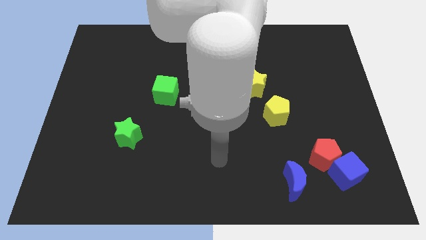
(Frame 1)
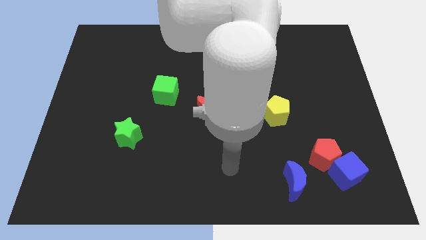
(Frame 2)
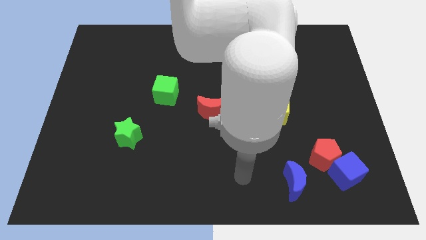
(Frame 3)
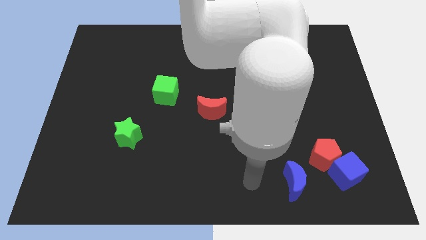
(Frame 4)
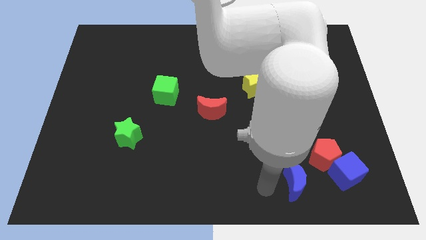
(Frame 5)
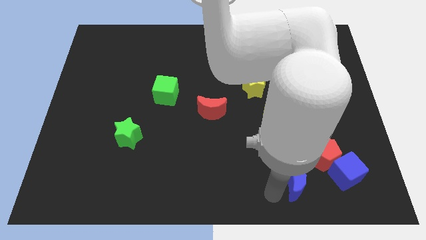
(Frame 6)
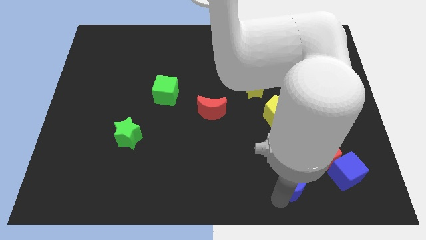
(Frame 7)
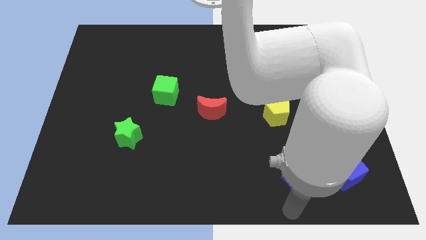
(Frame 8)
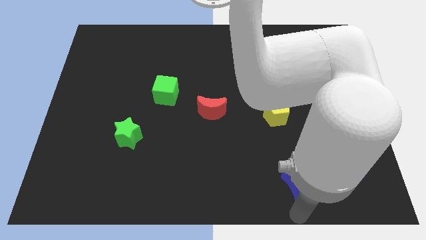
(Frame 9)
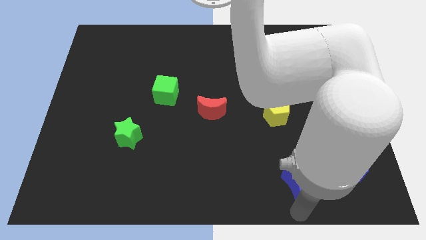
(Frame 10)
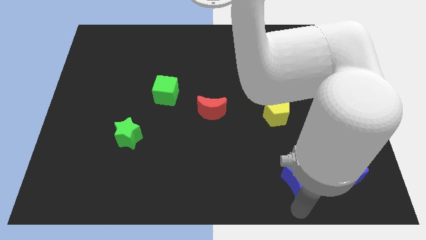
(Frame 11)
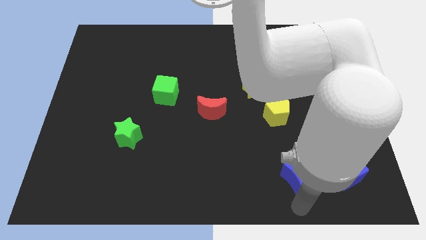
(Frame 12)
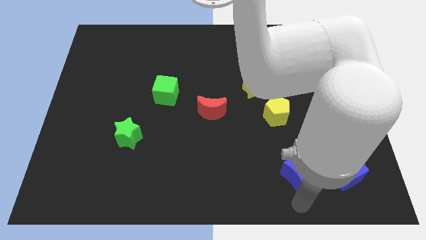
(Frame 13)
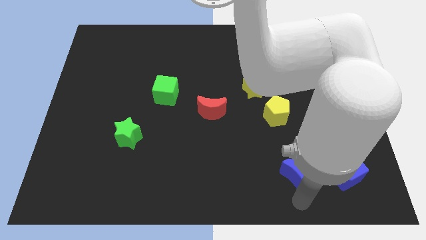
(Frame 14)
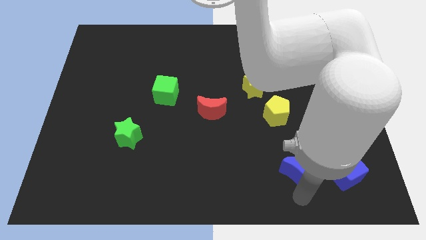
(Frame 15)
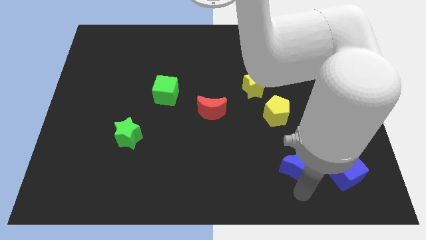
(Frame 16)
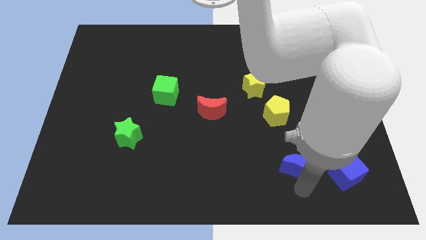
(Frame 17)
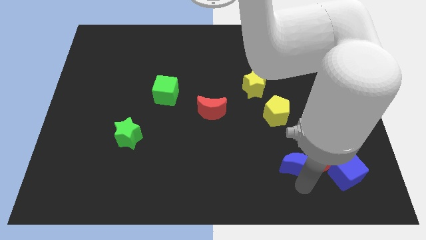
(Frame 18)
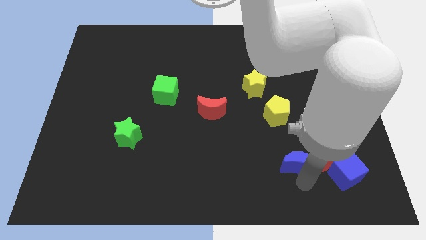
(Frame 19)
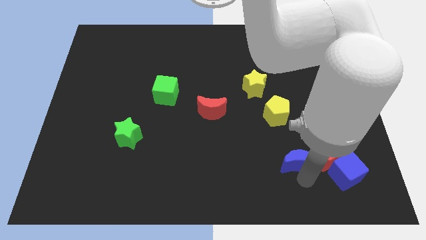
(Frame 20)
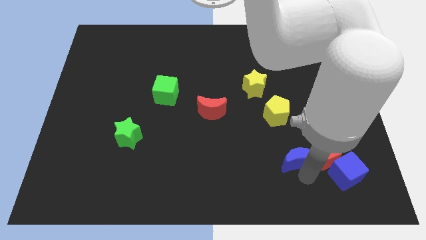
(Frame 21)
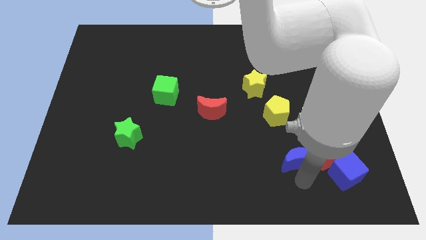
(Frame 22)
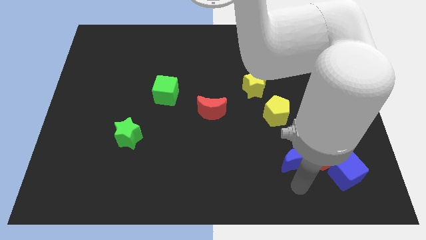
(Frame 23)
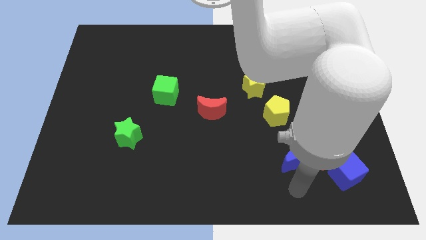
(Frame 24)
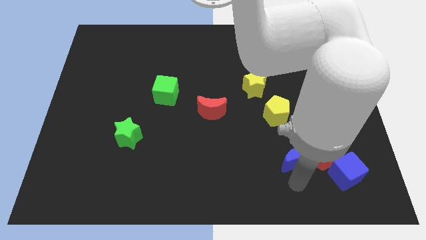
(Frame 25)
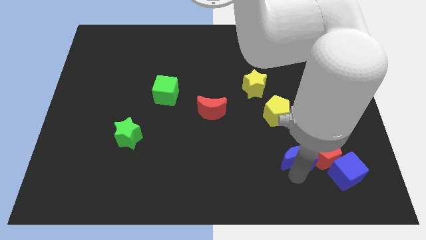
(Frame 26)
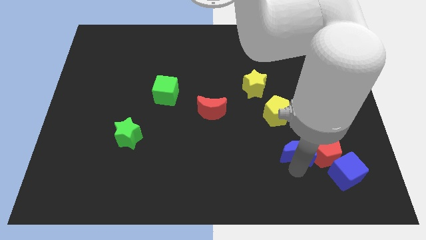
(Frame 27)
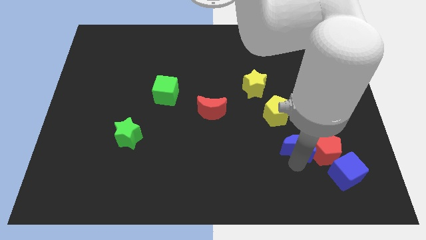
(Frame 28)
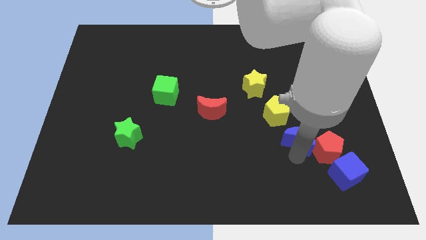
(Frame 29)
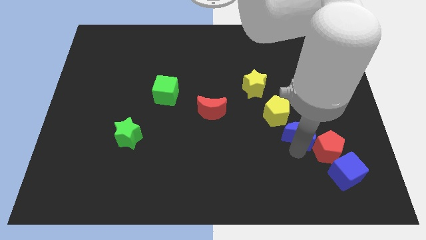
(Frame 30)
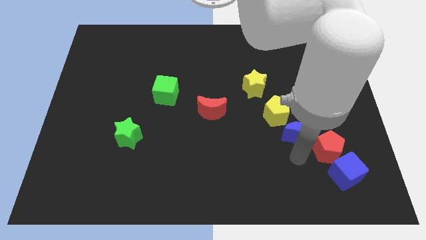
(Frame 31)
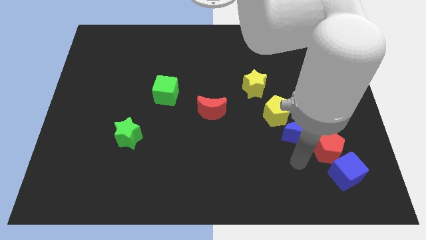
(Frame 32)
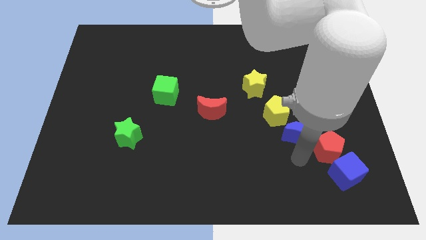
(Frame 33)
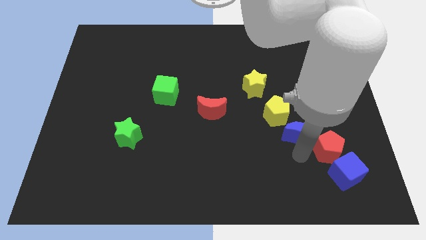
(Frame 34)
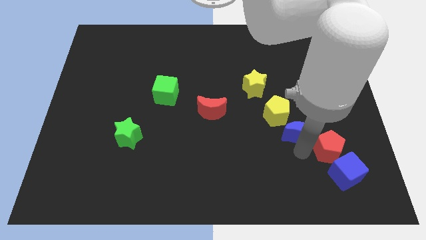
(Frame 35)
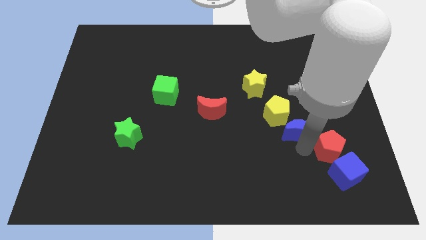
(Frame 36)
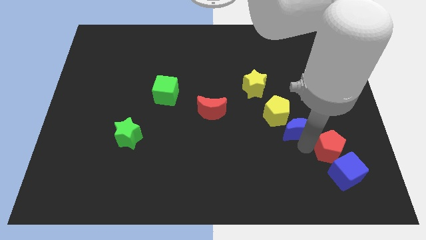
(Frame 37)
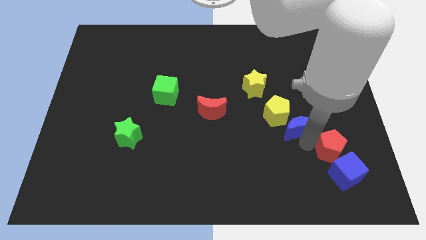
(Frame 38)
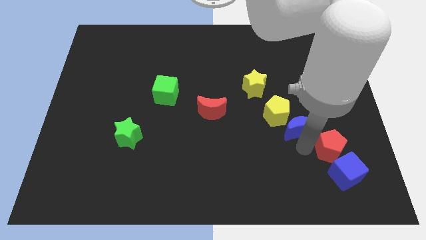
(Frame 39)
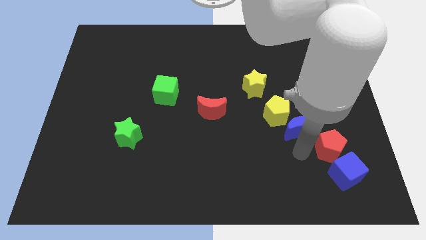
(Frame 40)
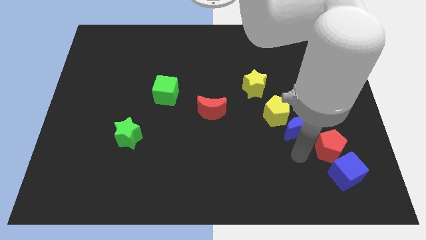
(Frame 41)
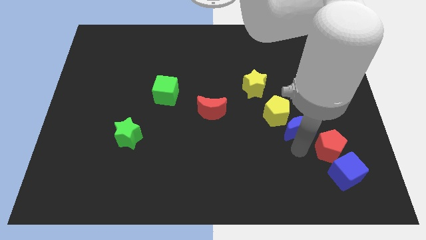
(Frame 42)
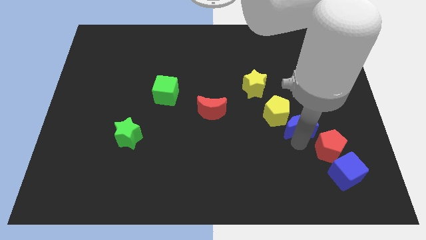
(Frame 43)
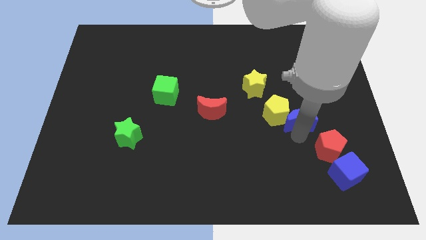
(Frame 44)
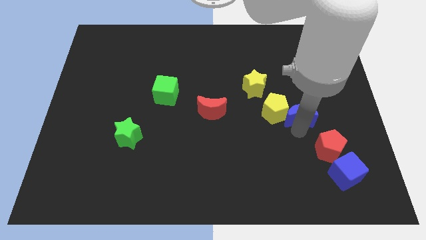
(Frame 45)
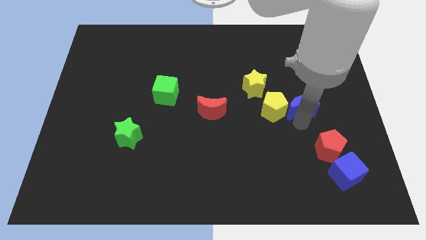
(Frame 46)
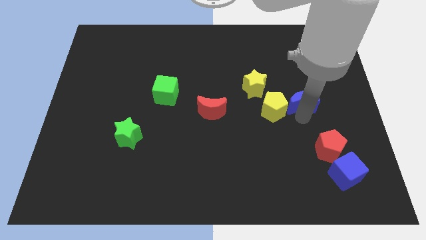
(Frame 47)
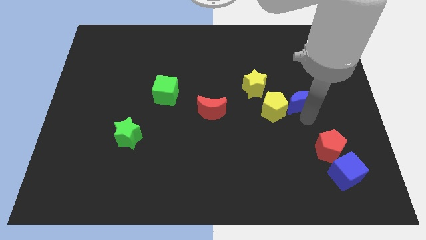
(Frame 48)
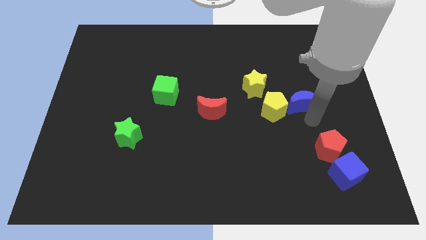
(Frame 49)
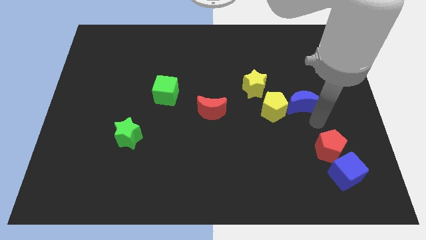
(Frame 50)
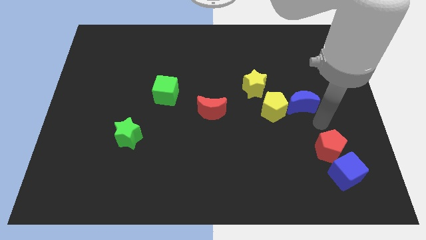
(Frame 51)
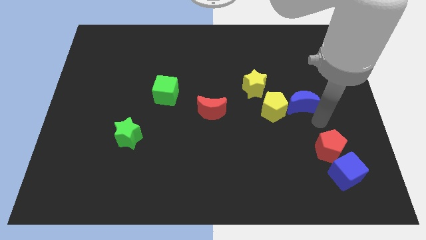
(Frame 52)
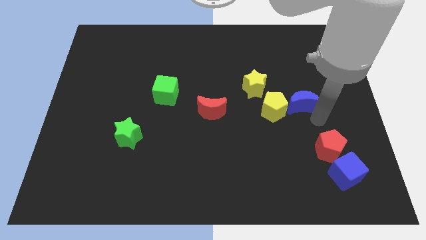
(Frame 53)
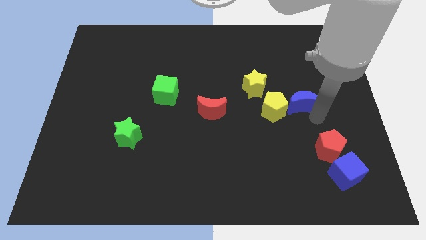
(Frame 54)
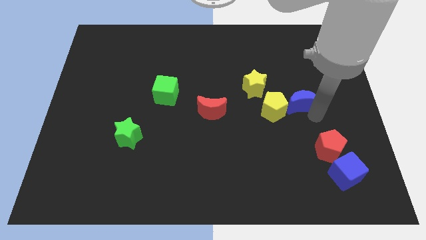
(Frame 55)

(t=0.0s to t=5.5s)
slide the blue moon upwards

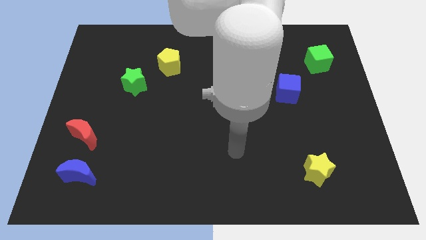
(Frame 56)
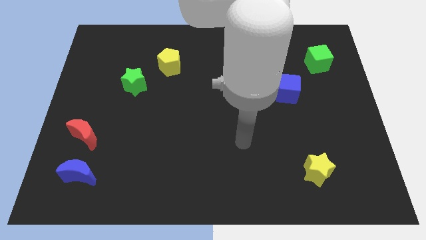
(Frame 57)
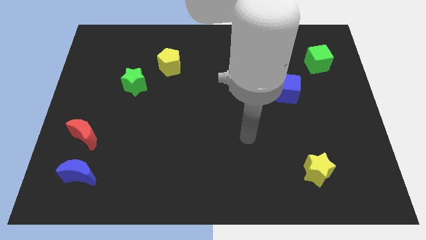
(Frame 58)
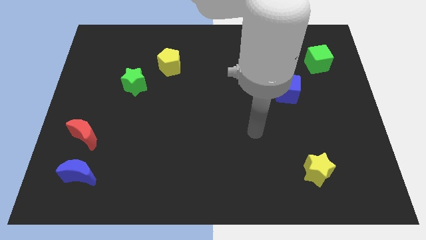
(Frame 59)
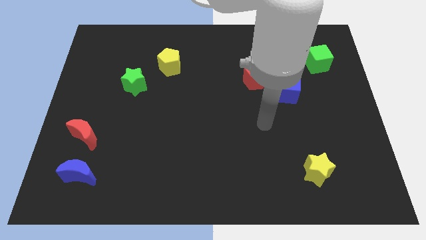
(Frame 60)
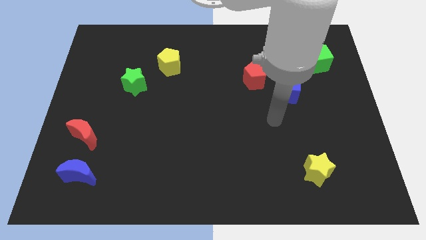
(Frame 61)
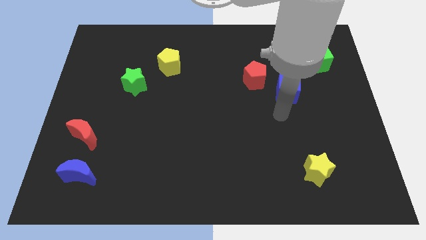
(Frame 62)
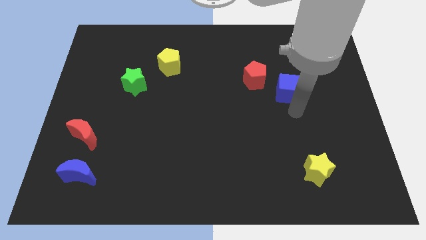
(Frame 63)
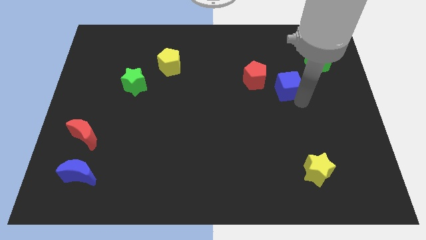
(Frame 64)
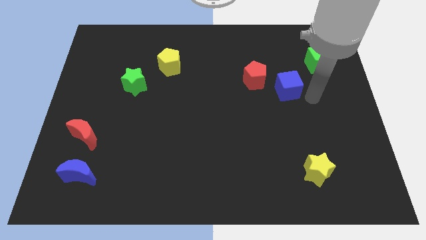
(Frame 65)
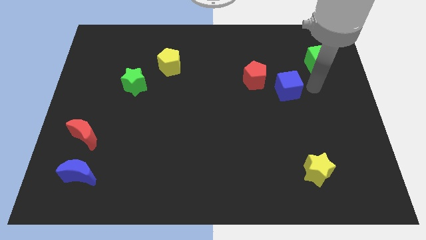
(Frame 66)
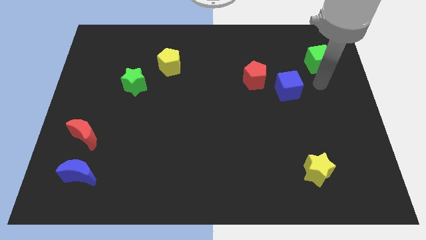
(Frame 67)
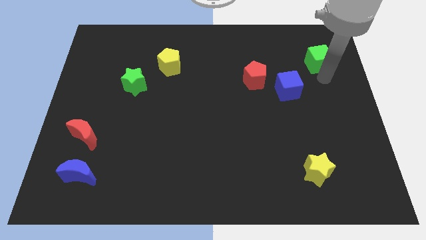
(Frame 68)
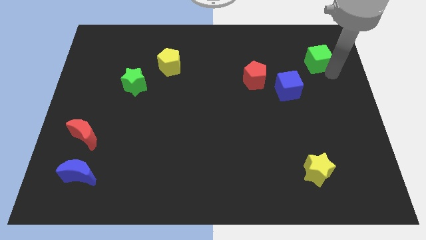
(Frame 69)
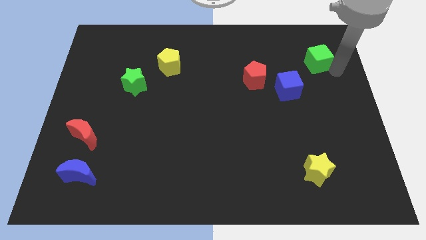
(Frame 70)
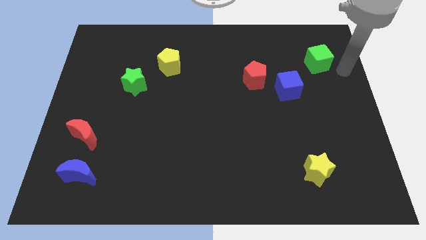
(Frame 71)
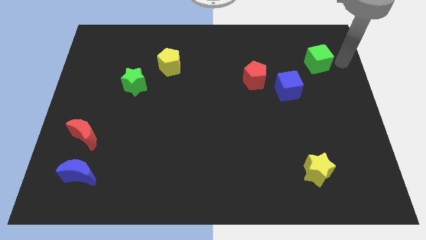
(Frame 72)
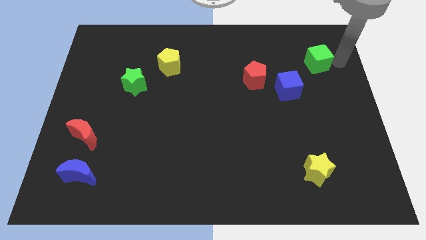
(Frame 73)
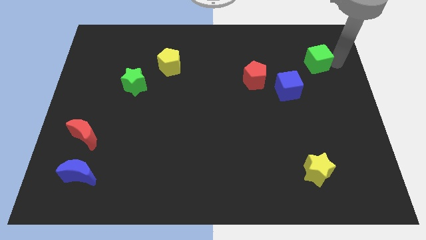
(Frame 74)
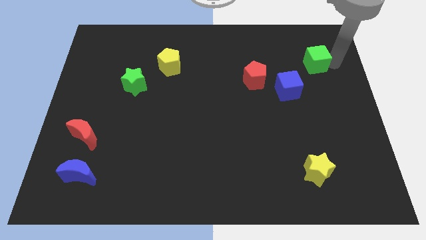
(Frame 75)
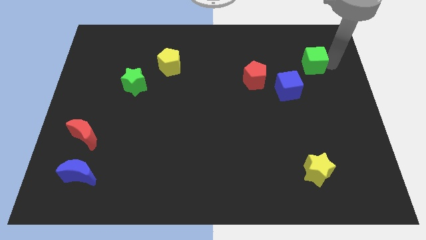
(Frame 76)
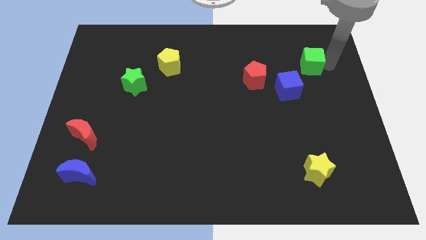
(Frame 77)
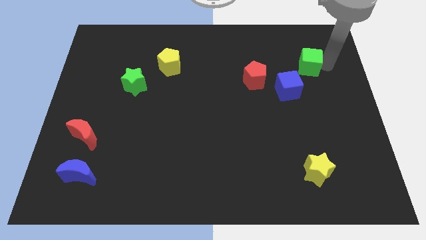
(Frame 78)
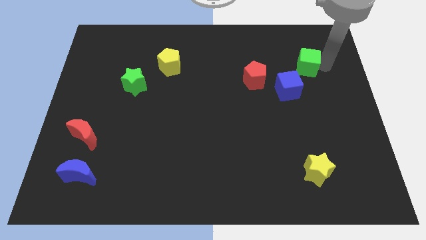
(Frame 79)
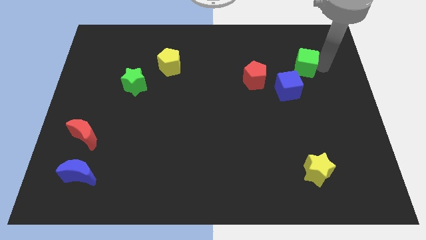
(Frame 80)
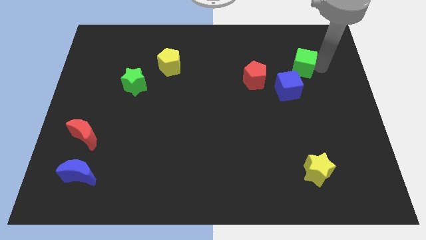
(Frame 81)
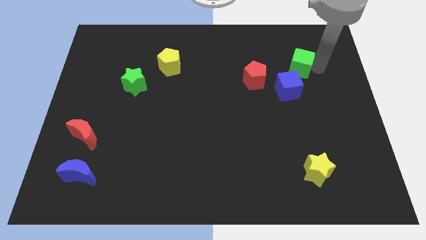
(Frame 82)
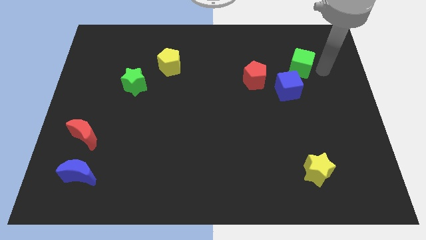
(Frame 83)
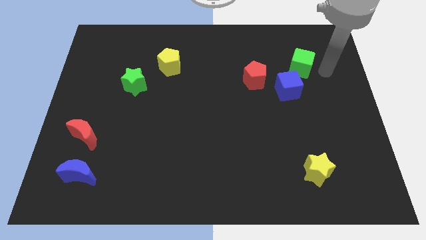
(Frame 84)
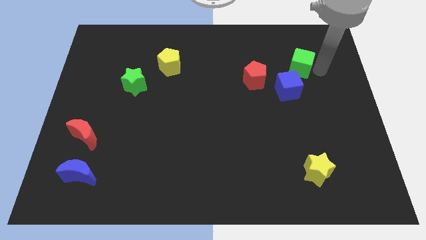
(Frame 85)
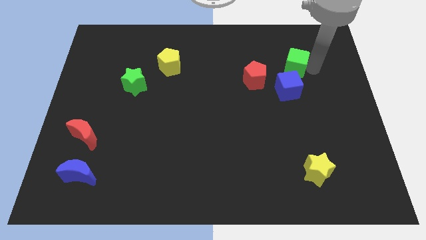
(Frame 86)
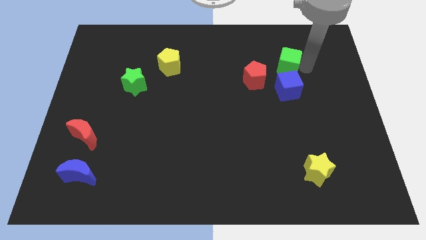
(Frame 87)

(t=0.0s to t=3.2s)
move the green cube a bit left
